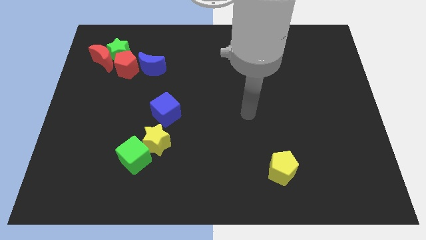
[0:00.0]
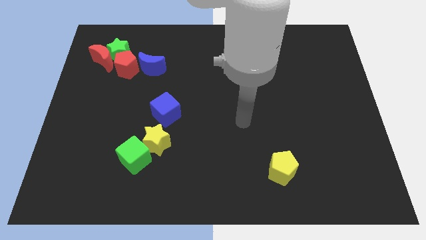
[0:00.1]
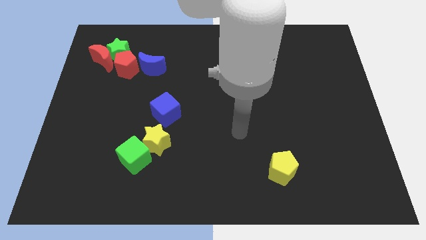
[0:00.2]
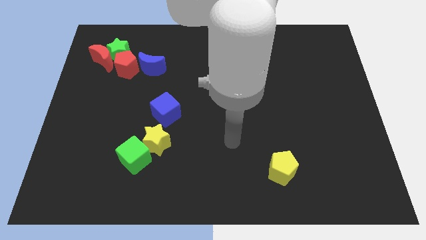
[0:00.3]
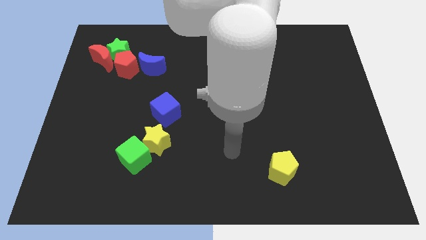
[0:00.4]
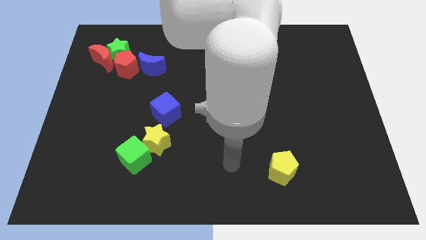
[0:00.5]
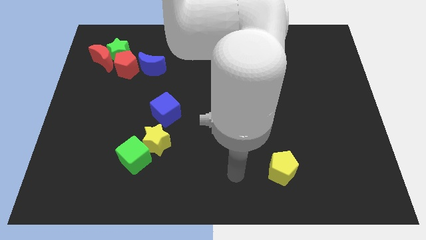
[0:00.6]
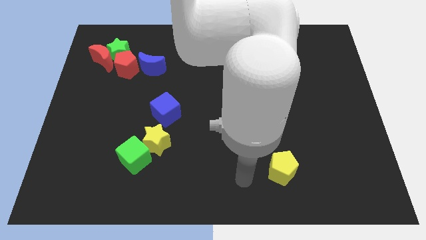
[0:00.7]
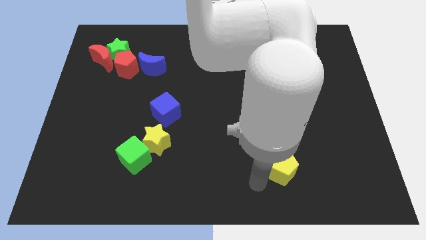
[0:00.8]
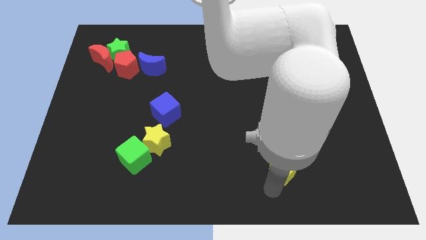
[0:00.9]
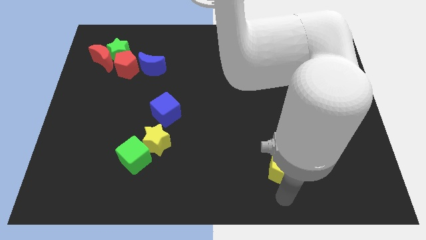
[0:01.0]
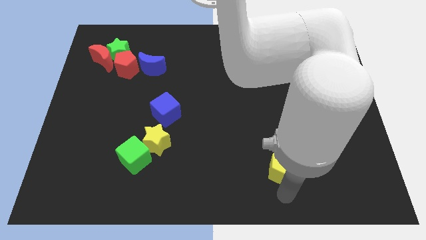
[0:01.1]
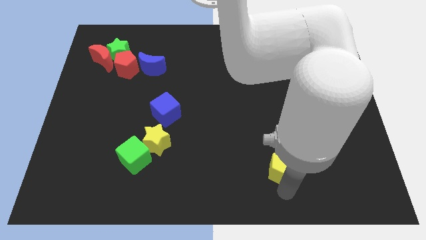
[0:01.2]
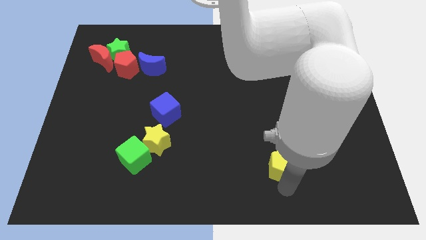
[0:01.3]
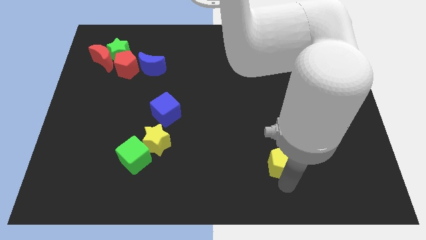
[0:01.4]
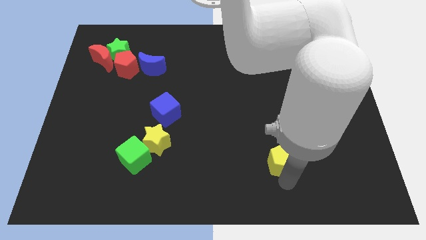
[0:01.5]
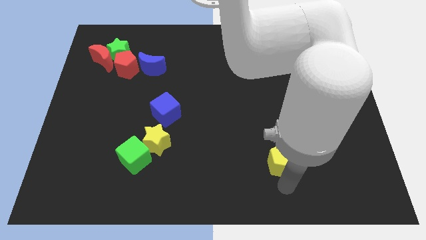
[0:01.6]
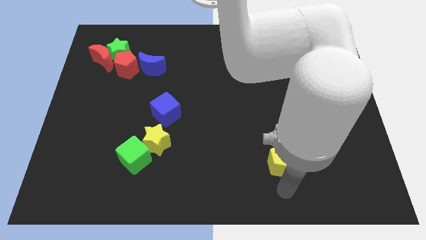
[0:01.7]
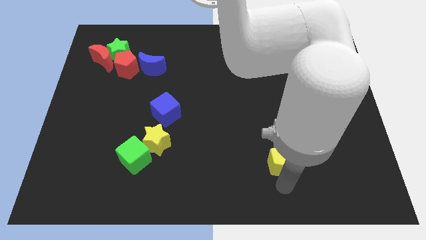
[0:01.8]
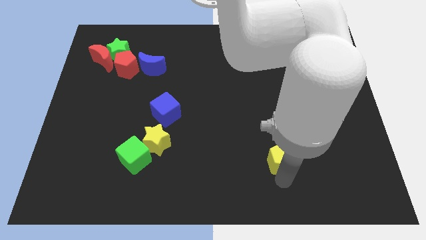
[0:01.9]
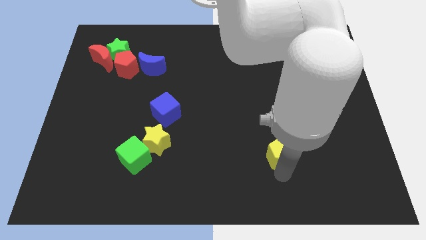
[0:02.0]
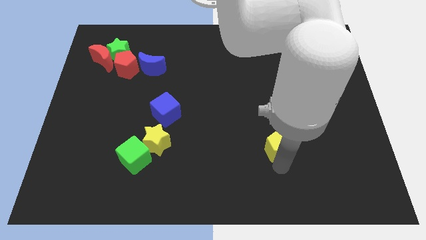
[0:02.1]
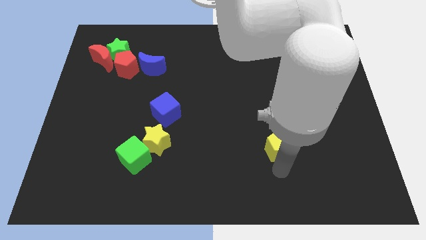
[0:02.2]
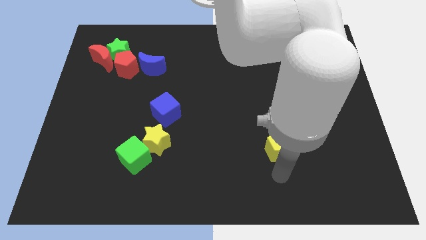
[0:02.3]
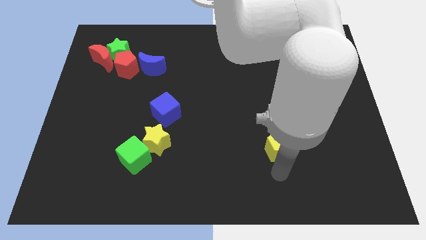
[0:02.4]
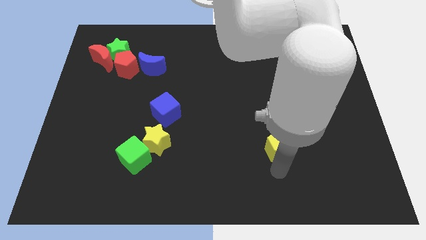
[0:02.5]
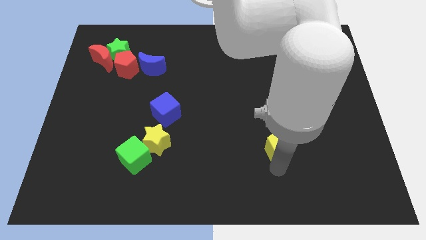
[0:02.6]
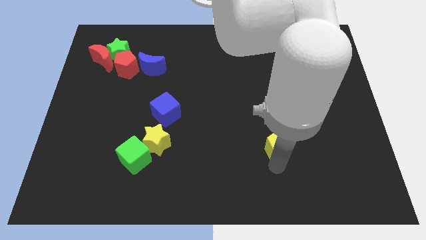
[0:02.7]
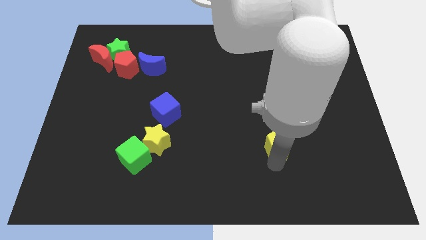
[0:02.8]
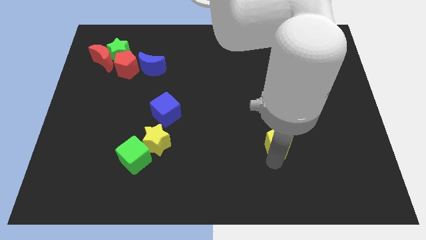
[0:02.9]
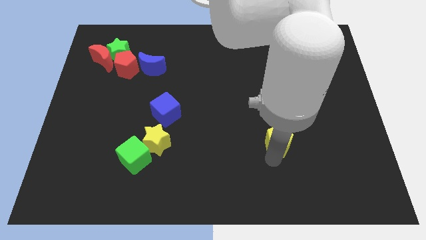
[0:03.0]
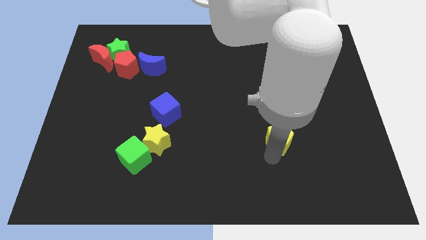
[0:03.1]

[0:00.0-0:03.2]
slightly slide the yellow pentagon upwards

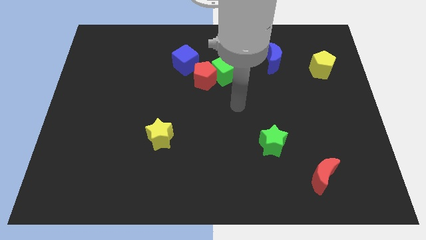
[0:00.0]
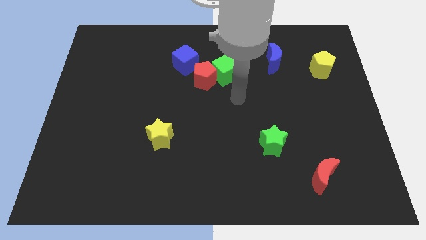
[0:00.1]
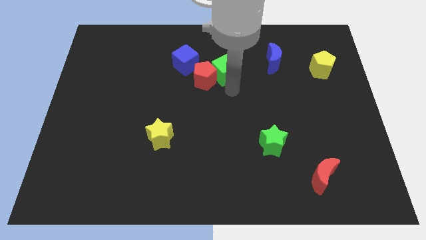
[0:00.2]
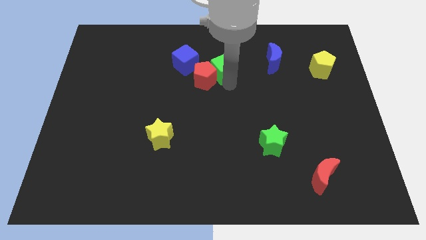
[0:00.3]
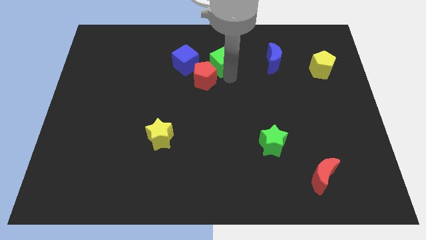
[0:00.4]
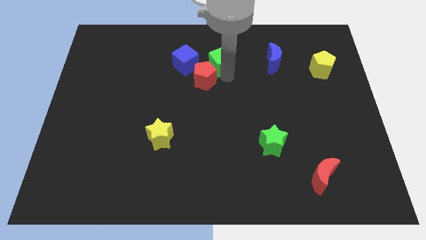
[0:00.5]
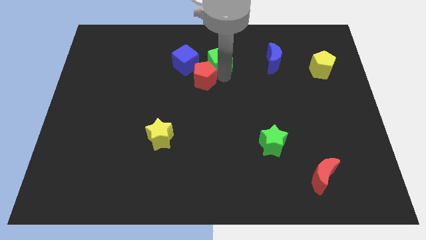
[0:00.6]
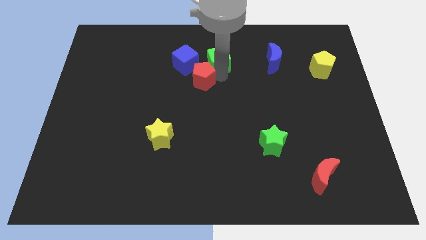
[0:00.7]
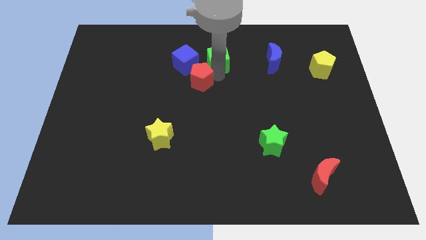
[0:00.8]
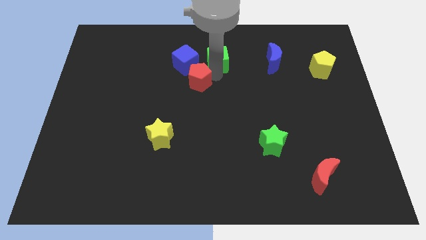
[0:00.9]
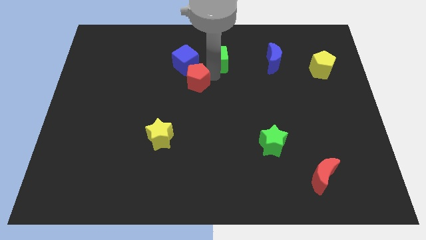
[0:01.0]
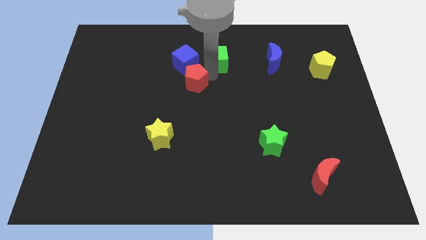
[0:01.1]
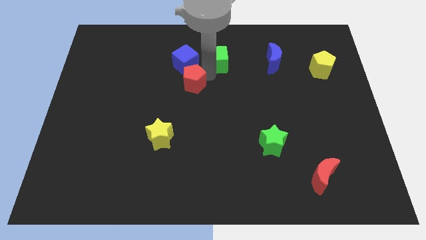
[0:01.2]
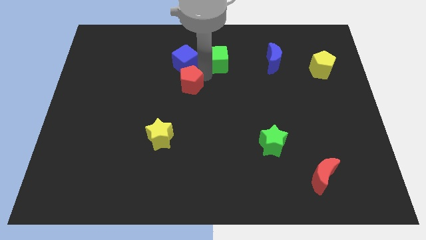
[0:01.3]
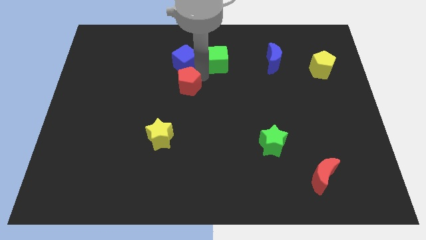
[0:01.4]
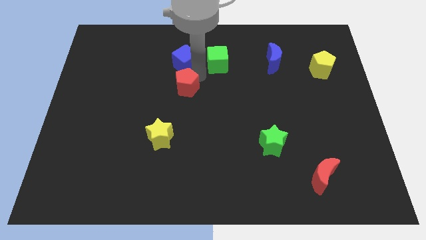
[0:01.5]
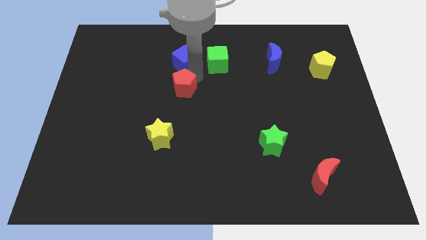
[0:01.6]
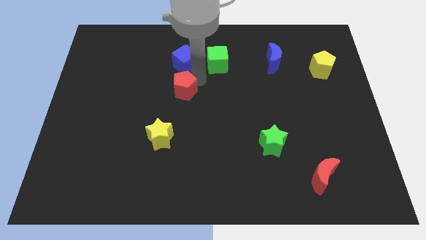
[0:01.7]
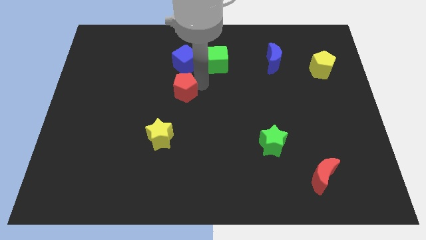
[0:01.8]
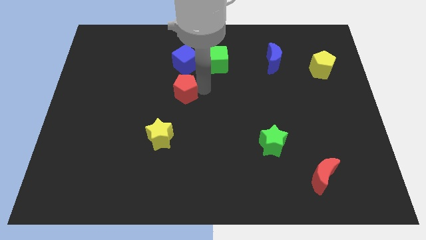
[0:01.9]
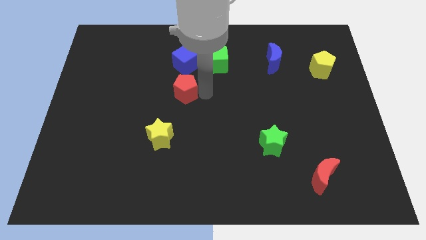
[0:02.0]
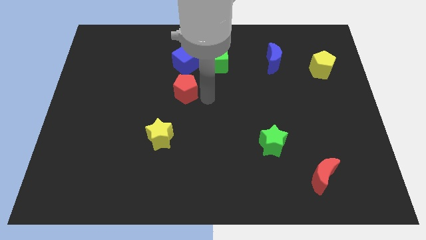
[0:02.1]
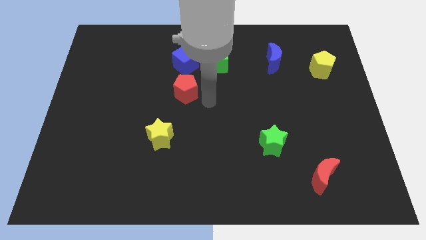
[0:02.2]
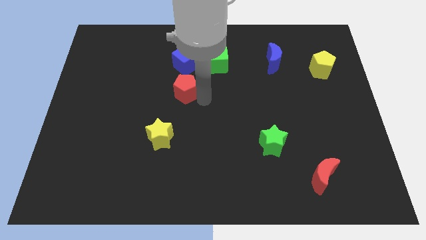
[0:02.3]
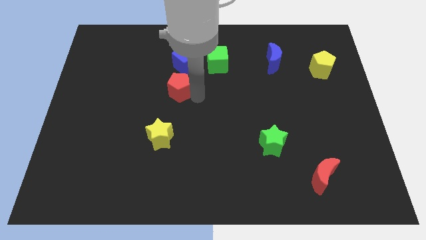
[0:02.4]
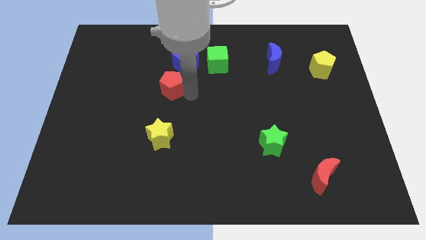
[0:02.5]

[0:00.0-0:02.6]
move the red pentagon to the left a little bit

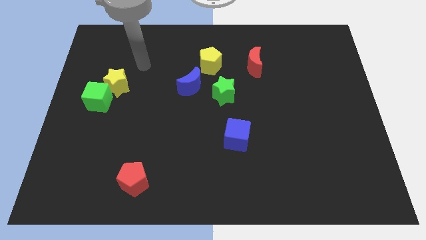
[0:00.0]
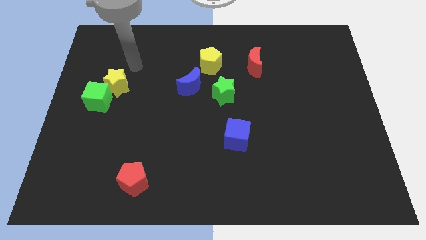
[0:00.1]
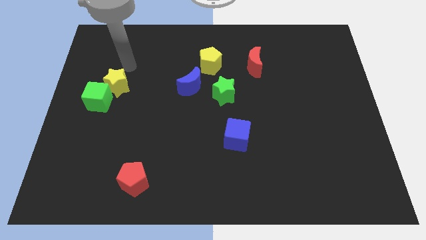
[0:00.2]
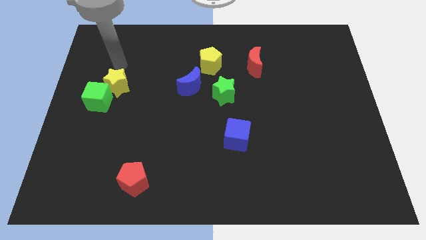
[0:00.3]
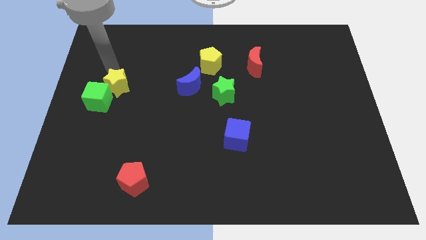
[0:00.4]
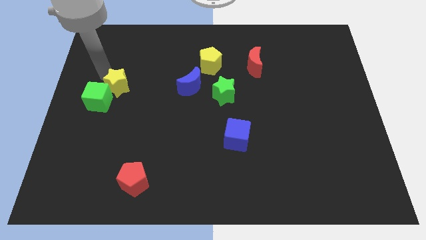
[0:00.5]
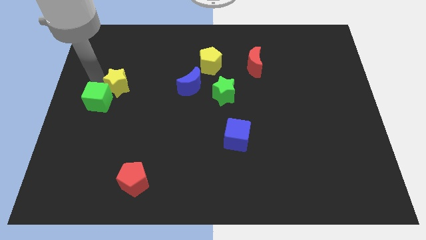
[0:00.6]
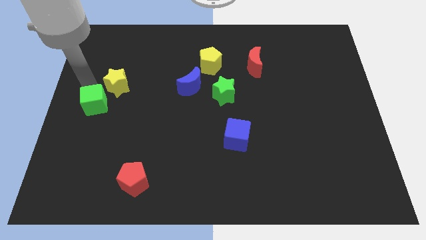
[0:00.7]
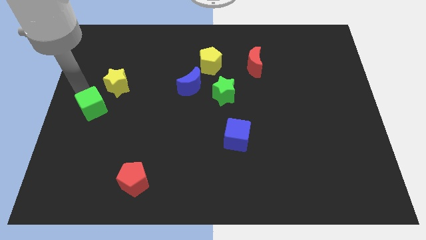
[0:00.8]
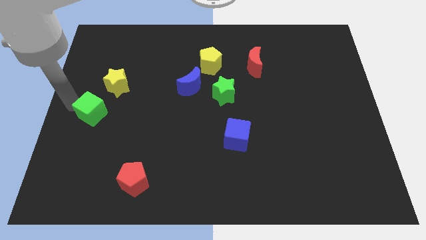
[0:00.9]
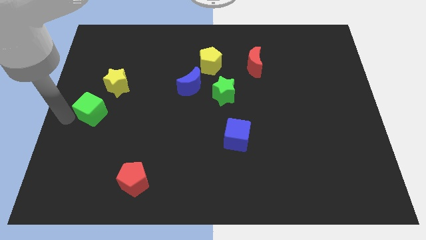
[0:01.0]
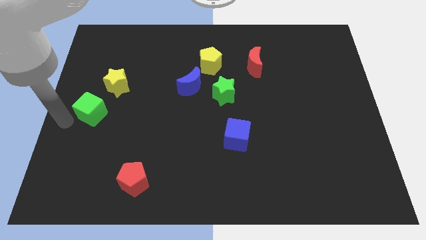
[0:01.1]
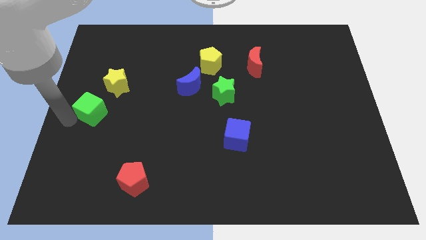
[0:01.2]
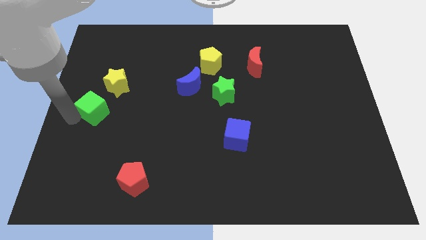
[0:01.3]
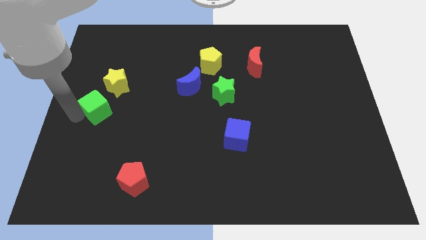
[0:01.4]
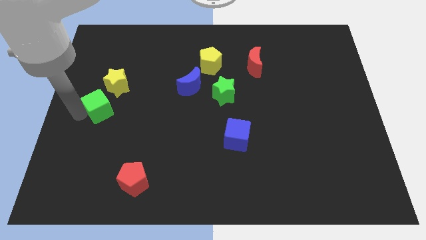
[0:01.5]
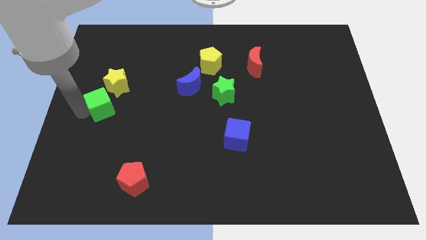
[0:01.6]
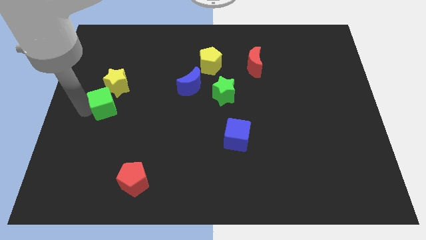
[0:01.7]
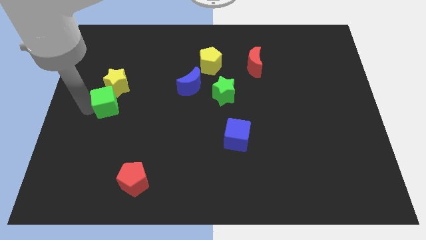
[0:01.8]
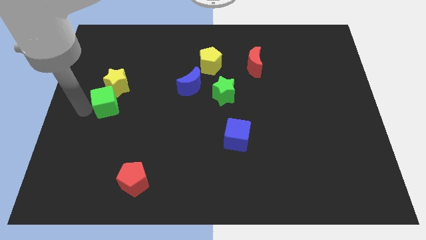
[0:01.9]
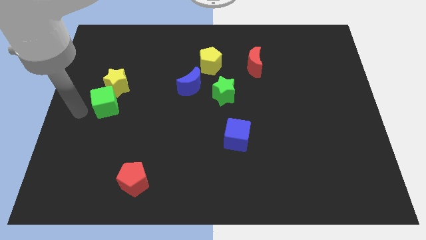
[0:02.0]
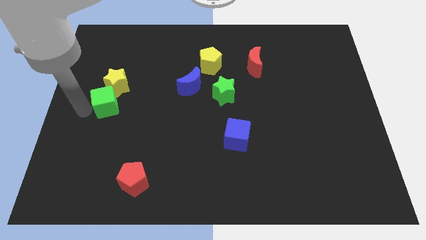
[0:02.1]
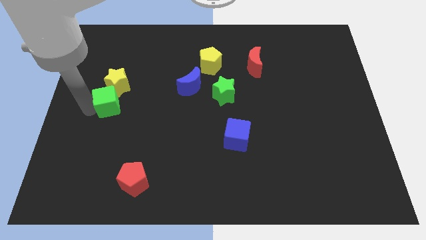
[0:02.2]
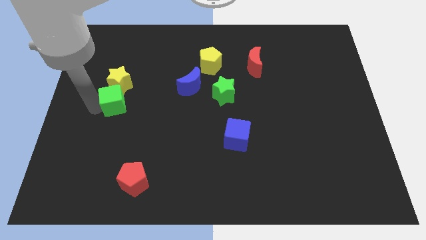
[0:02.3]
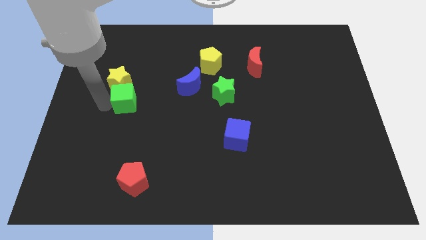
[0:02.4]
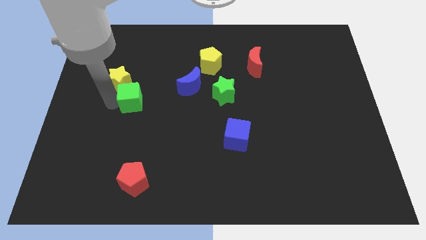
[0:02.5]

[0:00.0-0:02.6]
move the green cube slightly right
